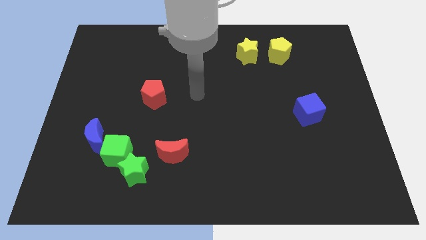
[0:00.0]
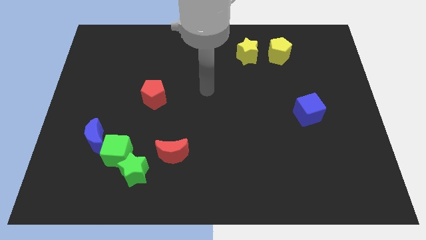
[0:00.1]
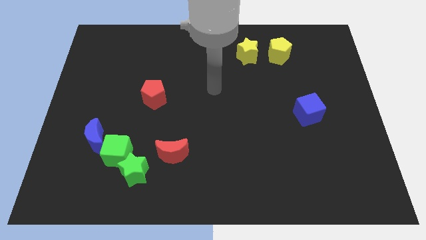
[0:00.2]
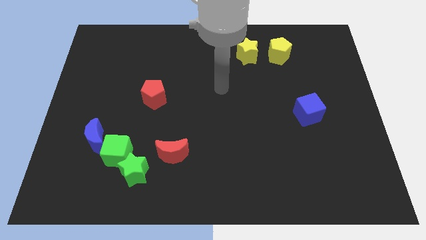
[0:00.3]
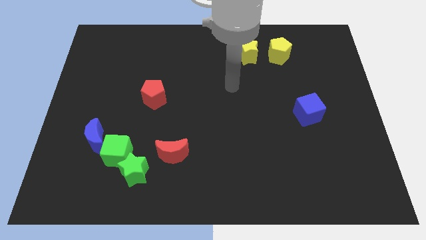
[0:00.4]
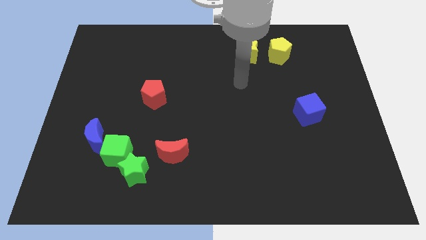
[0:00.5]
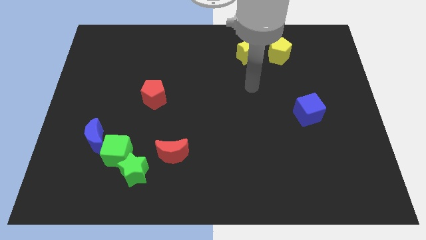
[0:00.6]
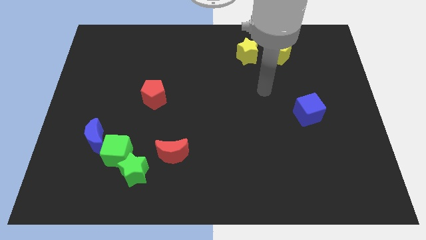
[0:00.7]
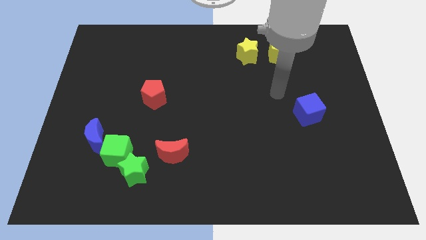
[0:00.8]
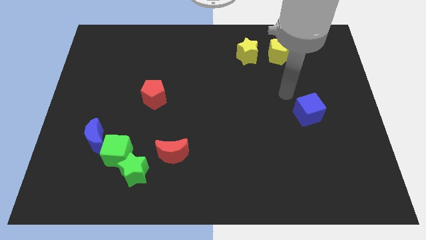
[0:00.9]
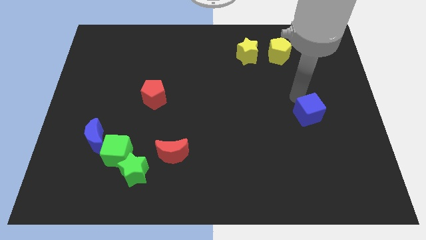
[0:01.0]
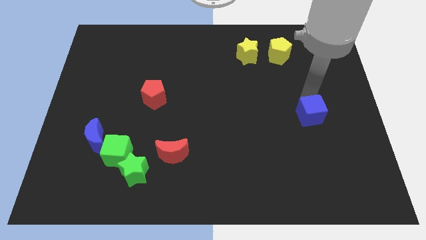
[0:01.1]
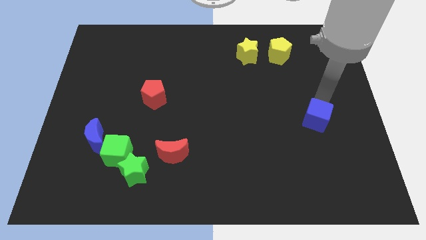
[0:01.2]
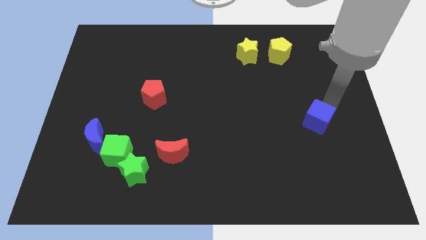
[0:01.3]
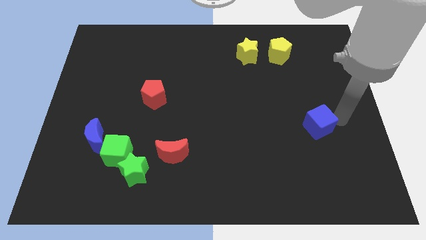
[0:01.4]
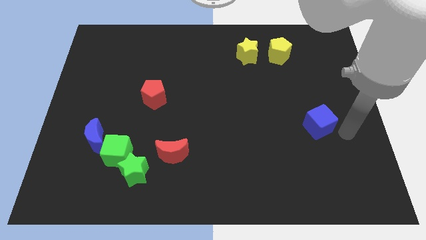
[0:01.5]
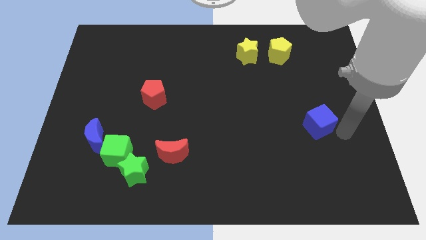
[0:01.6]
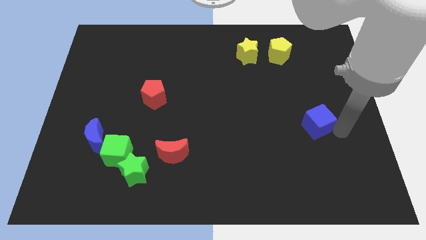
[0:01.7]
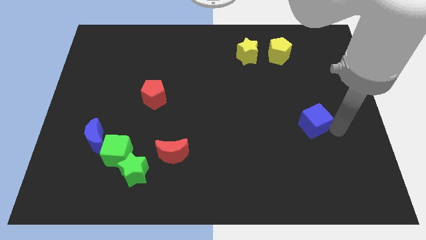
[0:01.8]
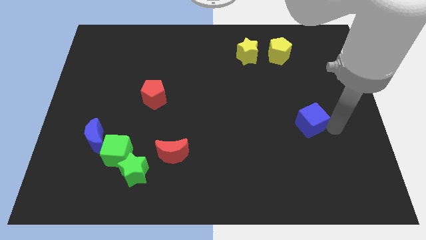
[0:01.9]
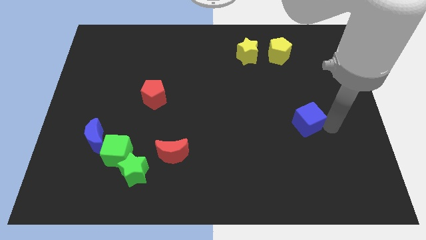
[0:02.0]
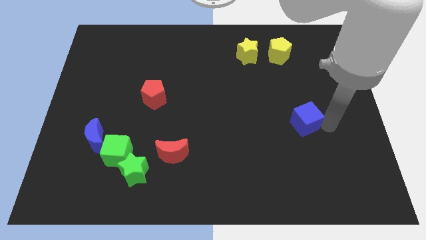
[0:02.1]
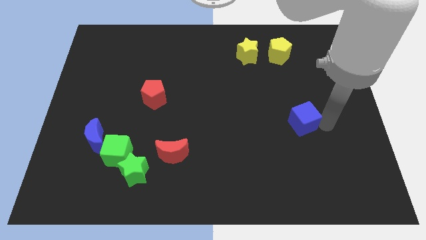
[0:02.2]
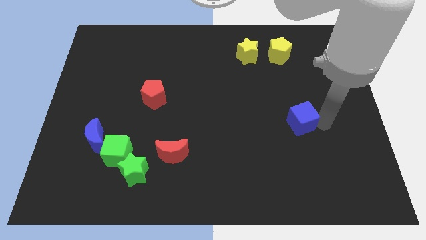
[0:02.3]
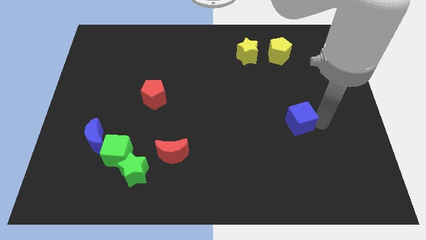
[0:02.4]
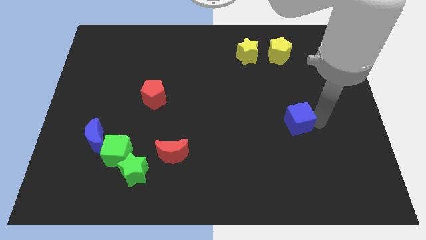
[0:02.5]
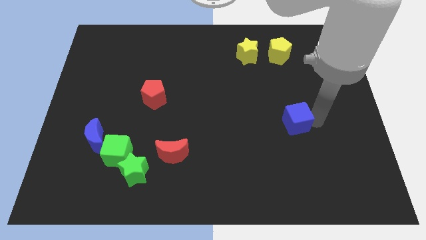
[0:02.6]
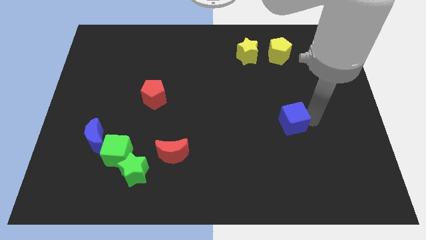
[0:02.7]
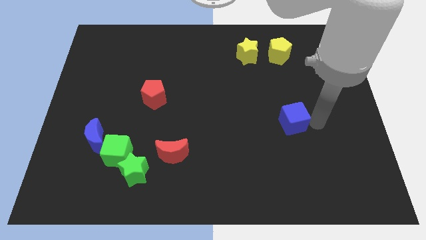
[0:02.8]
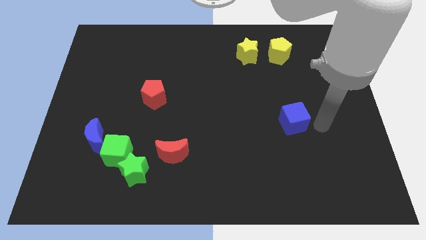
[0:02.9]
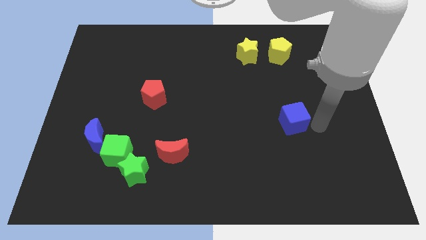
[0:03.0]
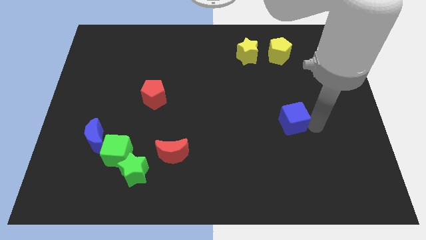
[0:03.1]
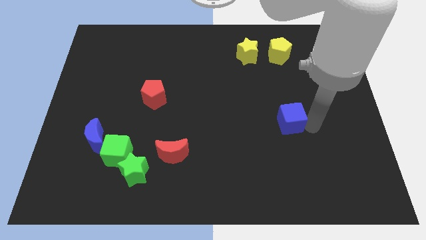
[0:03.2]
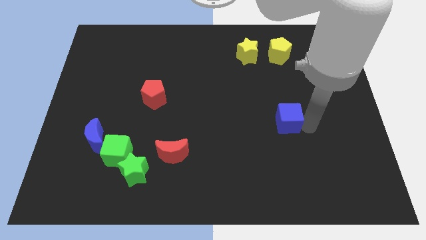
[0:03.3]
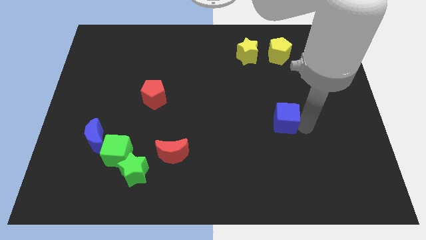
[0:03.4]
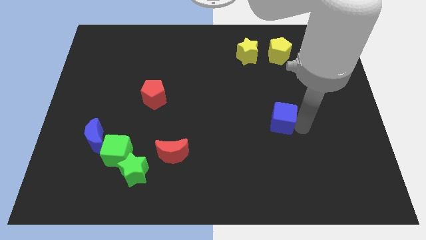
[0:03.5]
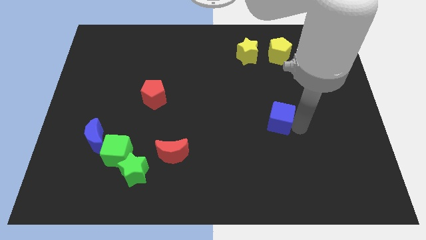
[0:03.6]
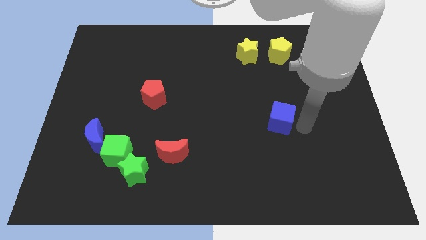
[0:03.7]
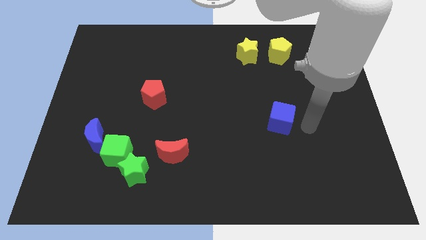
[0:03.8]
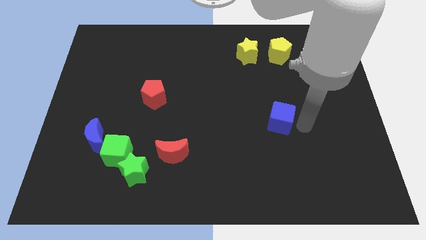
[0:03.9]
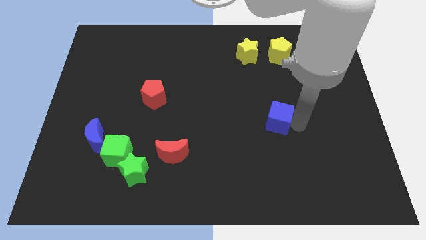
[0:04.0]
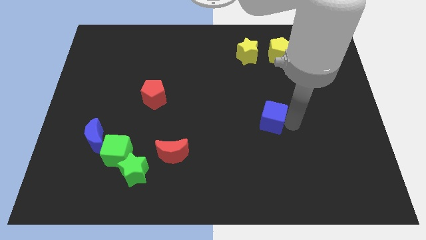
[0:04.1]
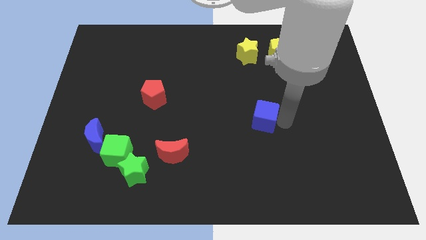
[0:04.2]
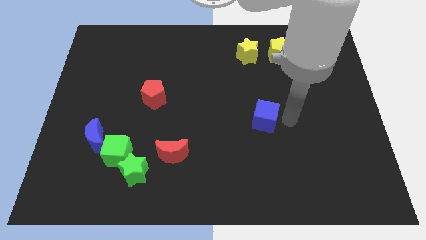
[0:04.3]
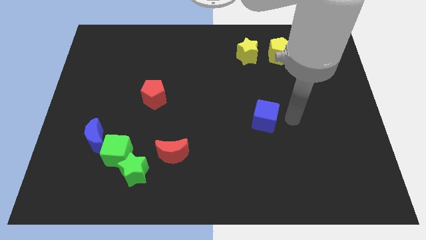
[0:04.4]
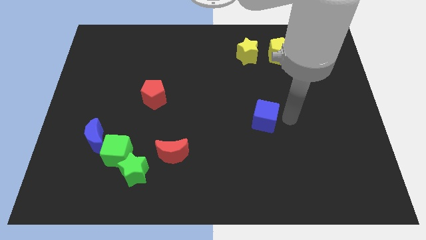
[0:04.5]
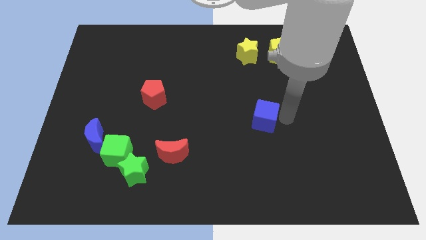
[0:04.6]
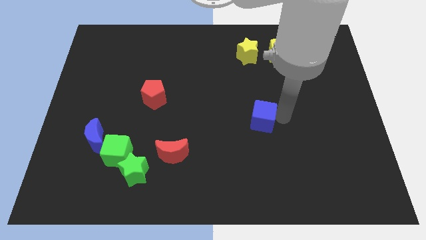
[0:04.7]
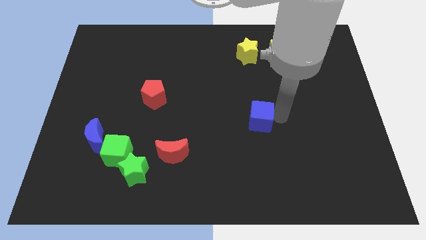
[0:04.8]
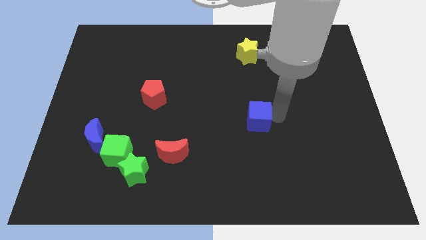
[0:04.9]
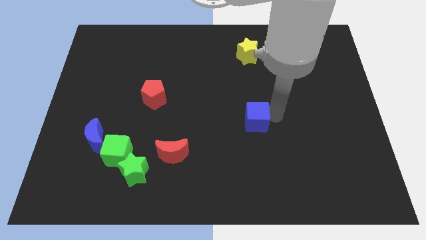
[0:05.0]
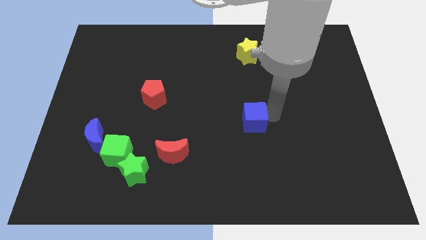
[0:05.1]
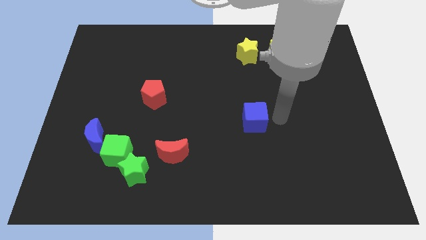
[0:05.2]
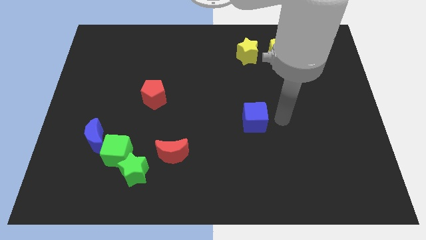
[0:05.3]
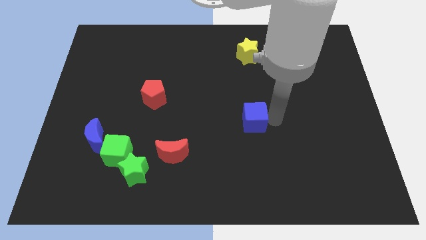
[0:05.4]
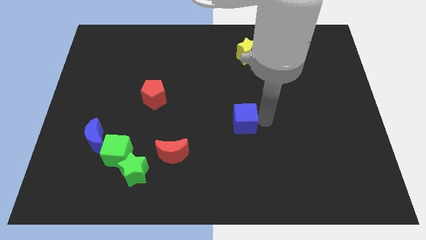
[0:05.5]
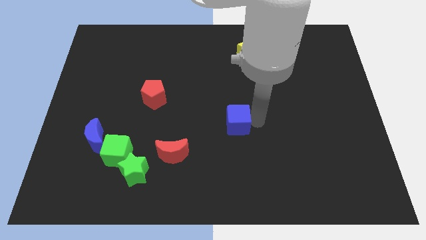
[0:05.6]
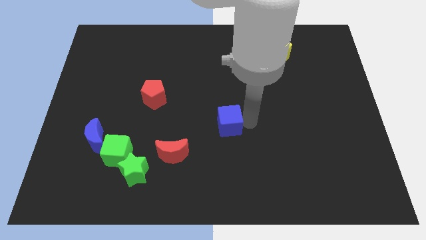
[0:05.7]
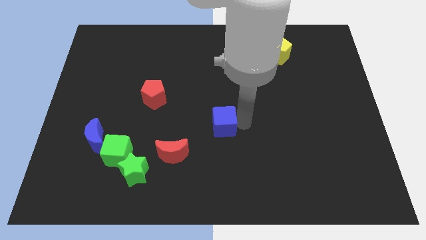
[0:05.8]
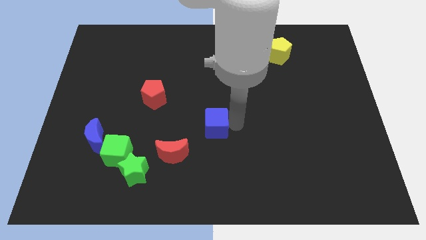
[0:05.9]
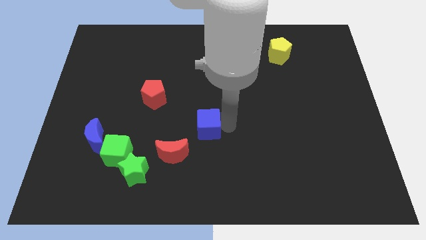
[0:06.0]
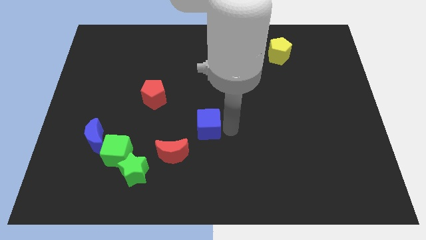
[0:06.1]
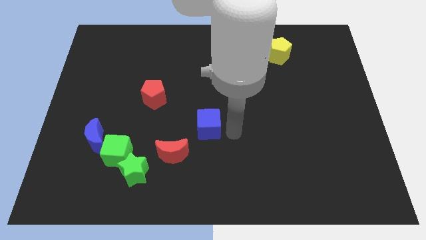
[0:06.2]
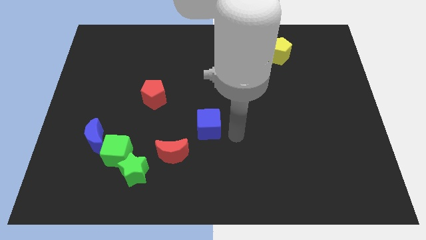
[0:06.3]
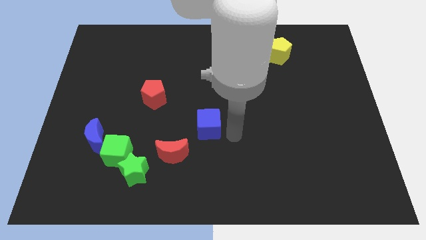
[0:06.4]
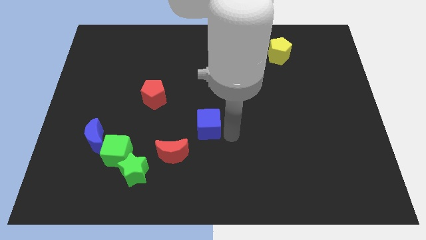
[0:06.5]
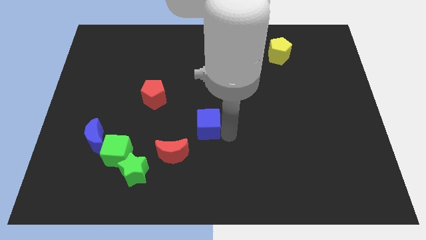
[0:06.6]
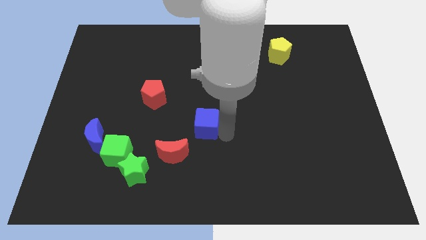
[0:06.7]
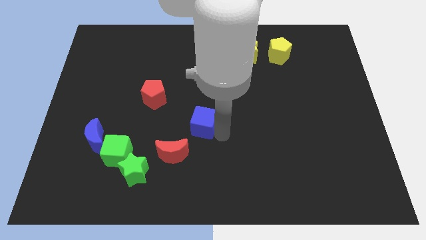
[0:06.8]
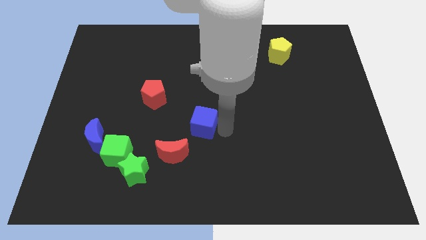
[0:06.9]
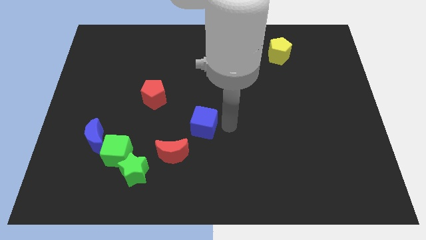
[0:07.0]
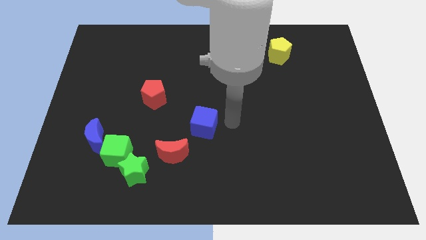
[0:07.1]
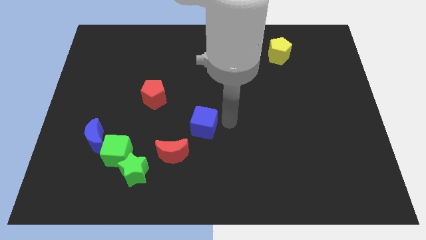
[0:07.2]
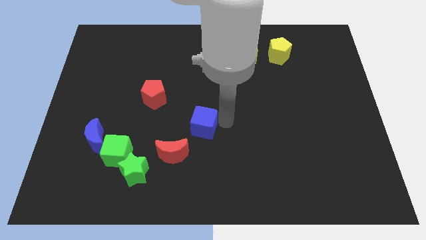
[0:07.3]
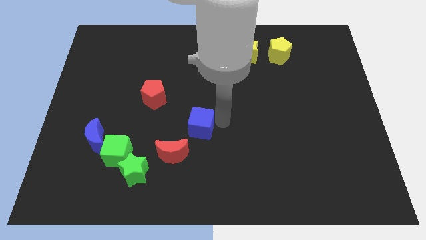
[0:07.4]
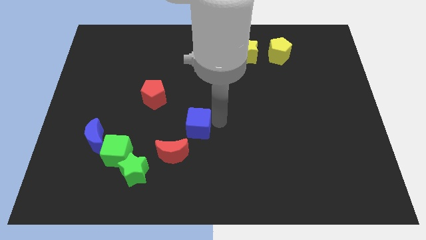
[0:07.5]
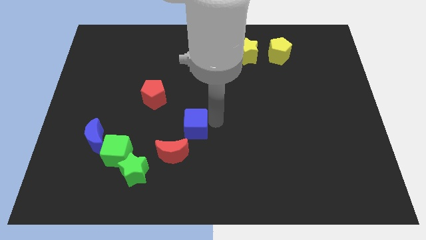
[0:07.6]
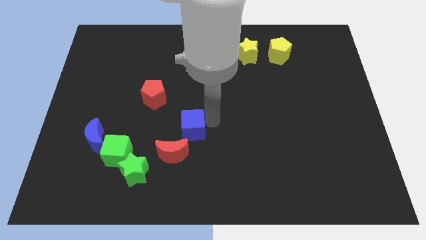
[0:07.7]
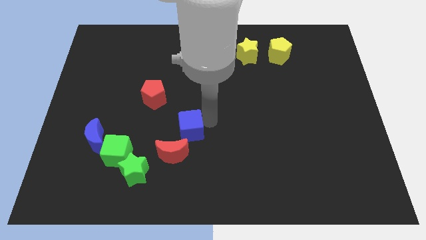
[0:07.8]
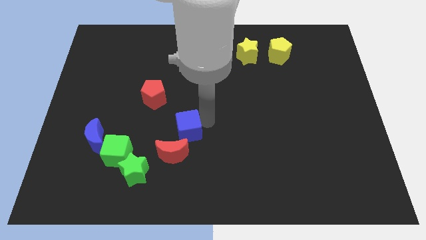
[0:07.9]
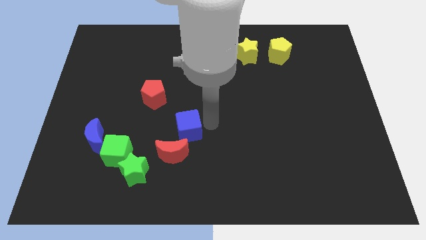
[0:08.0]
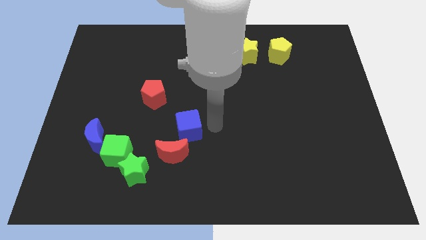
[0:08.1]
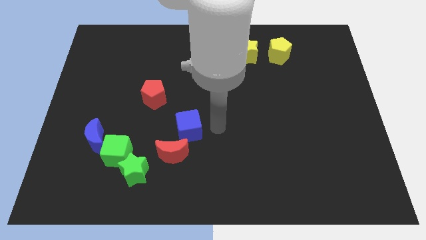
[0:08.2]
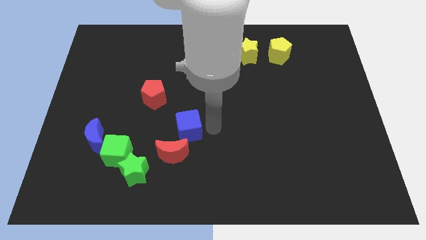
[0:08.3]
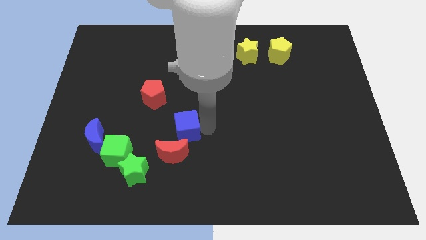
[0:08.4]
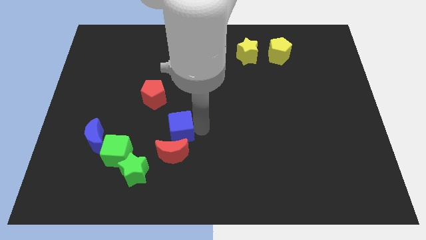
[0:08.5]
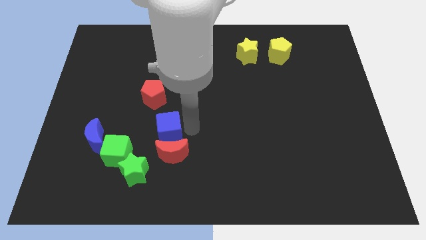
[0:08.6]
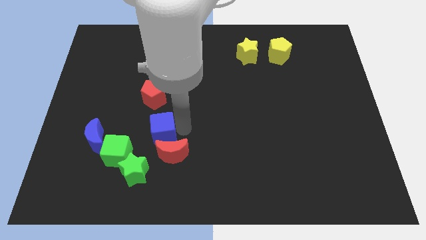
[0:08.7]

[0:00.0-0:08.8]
move the blue cube to the right of the blue moon
